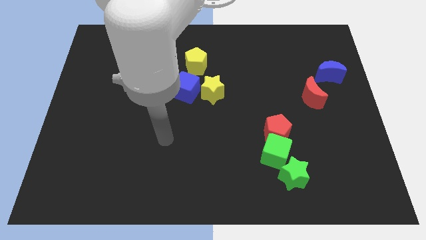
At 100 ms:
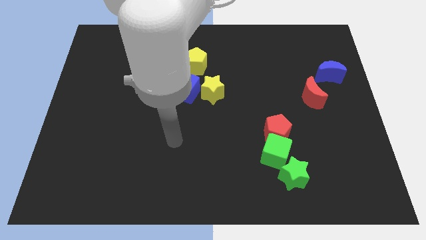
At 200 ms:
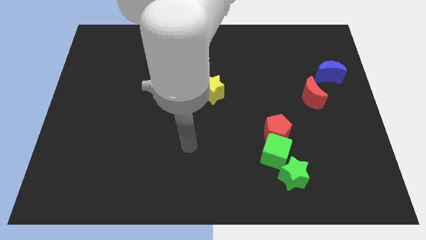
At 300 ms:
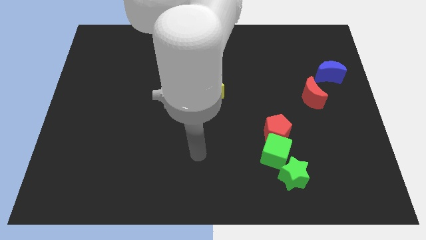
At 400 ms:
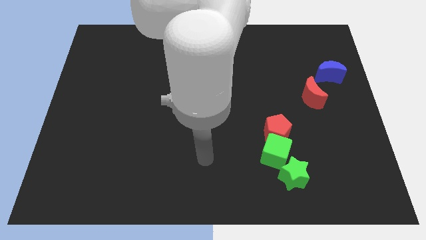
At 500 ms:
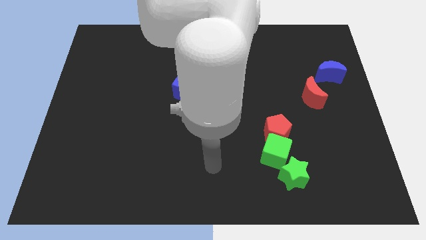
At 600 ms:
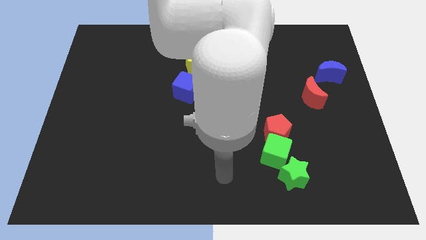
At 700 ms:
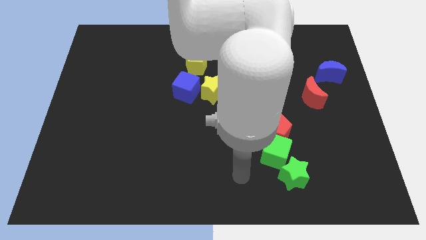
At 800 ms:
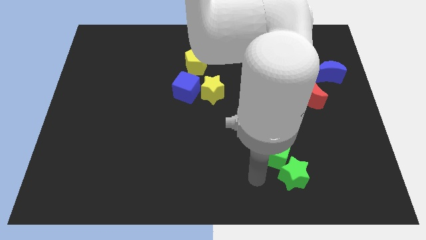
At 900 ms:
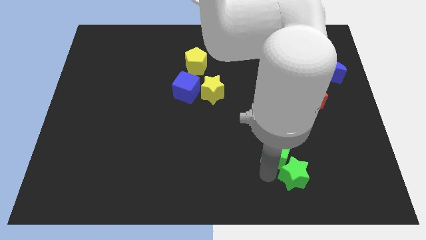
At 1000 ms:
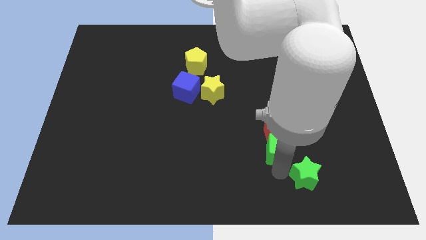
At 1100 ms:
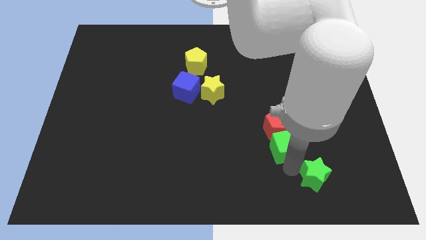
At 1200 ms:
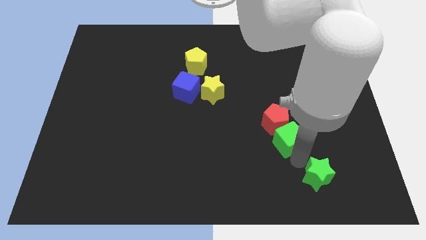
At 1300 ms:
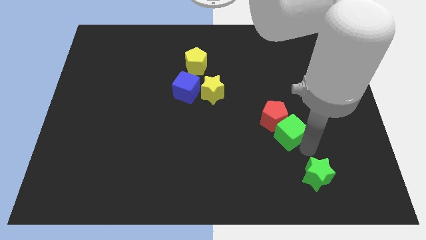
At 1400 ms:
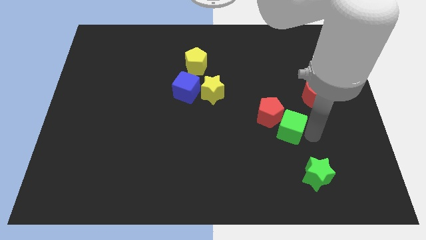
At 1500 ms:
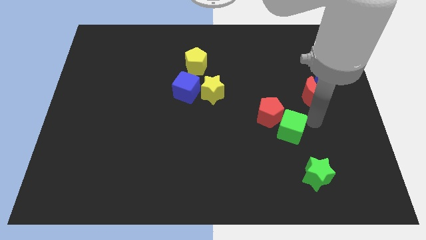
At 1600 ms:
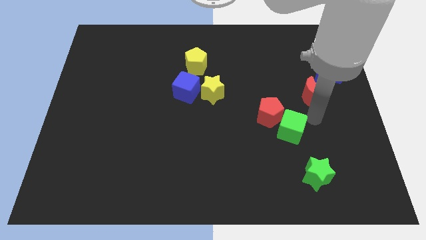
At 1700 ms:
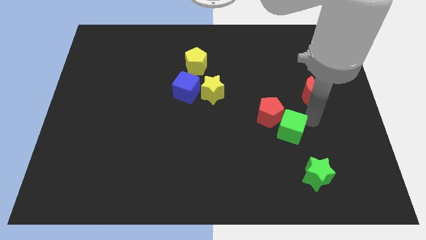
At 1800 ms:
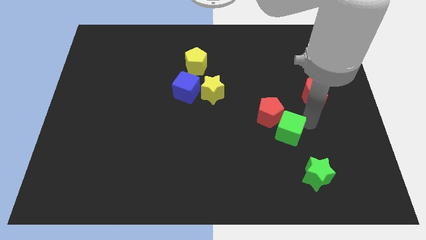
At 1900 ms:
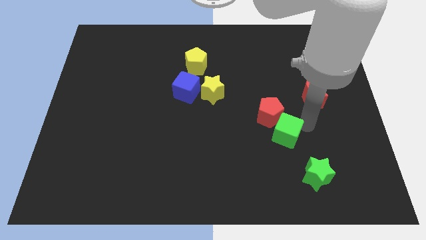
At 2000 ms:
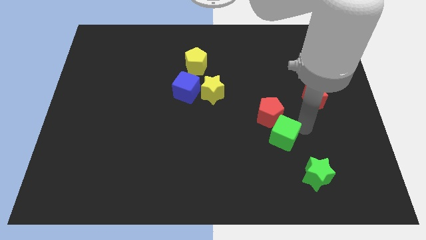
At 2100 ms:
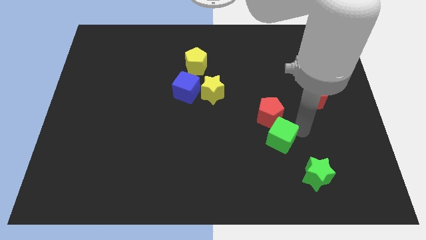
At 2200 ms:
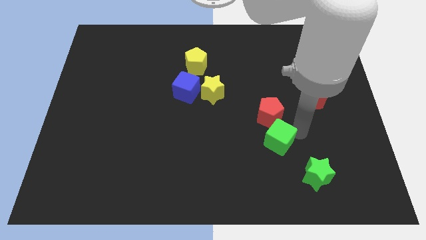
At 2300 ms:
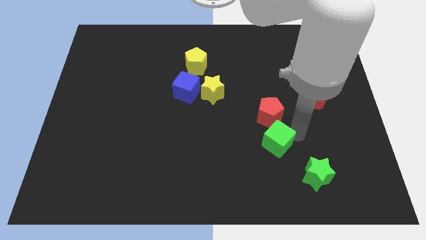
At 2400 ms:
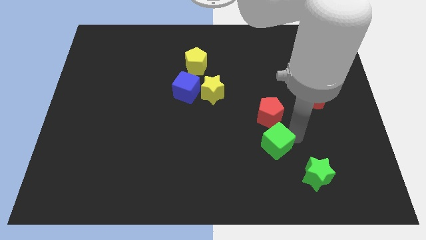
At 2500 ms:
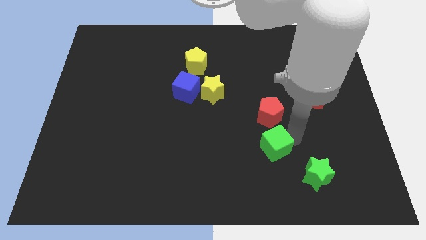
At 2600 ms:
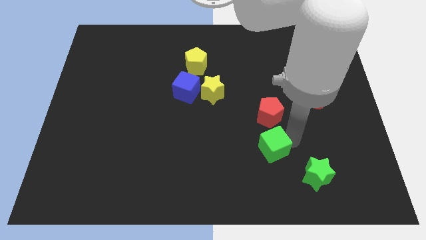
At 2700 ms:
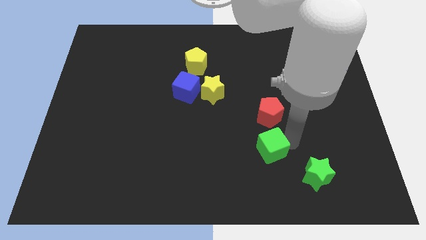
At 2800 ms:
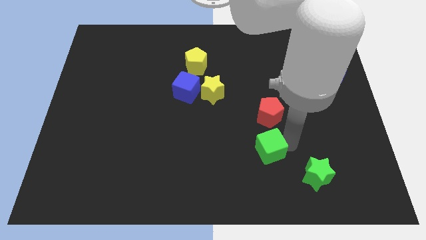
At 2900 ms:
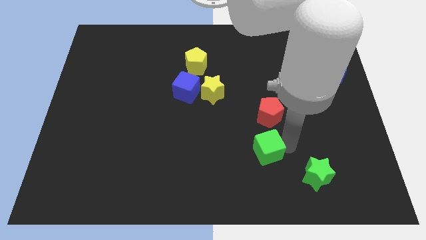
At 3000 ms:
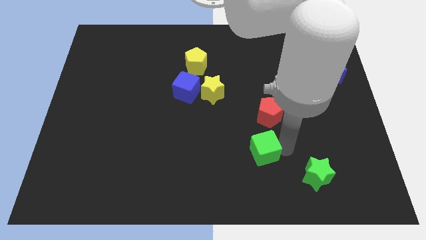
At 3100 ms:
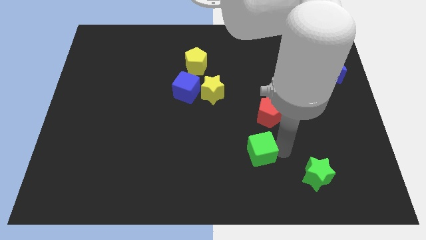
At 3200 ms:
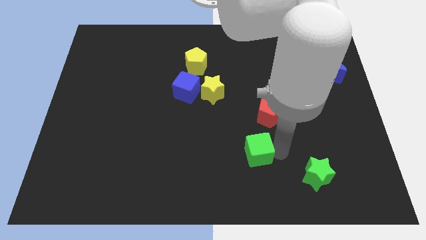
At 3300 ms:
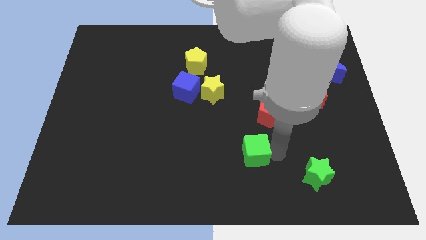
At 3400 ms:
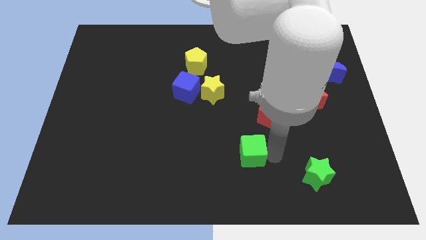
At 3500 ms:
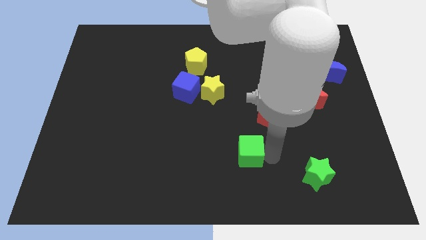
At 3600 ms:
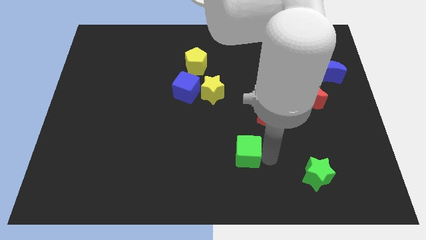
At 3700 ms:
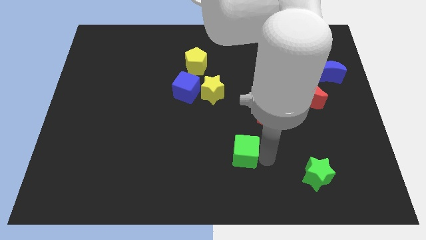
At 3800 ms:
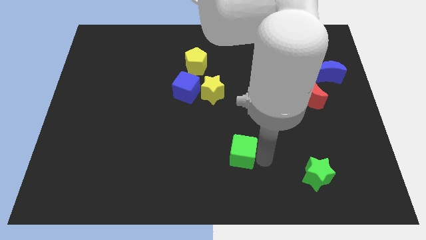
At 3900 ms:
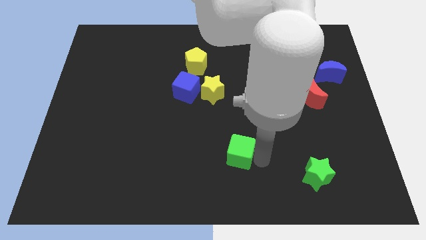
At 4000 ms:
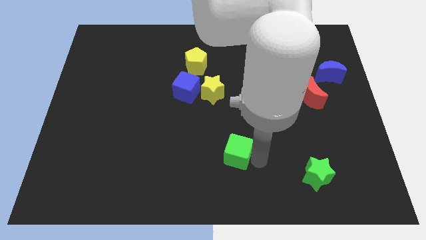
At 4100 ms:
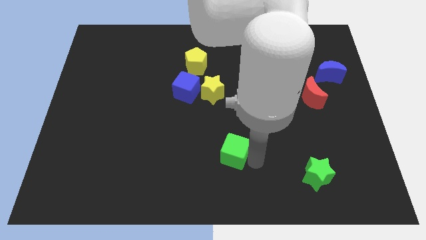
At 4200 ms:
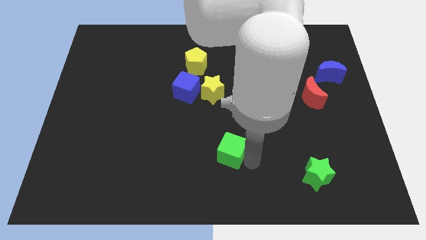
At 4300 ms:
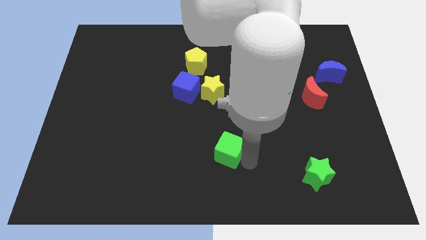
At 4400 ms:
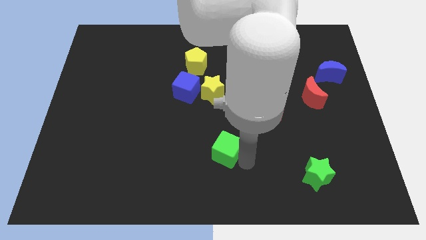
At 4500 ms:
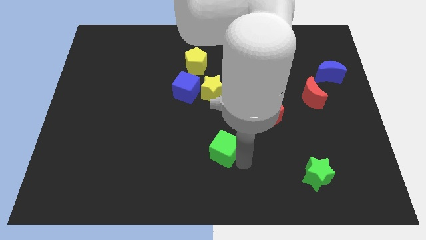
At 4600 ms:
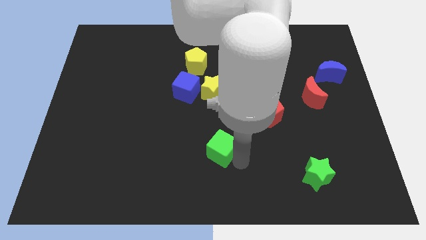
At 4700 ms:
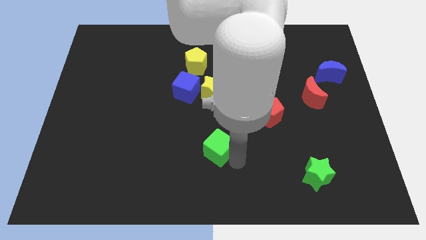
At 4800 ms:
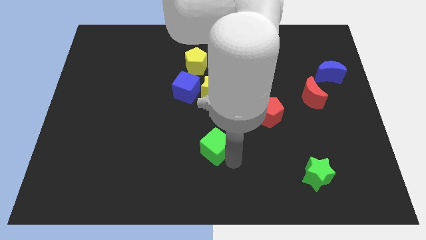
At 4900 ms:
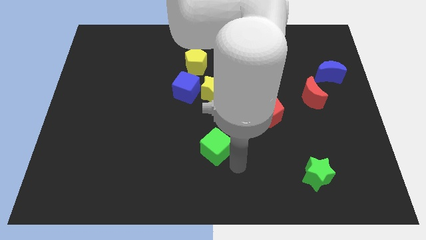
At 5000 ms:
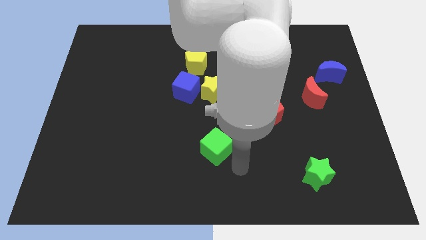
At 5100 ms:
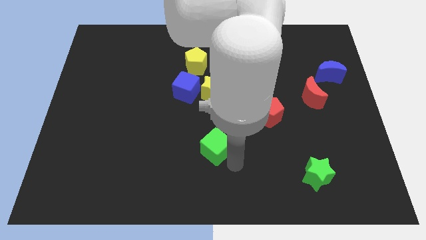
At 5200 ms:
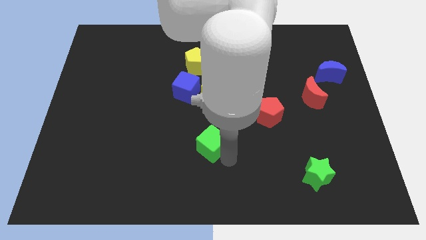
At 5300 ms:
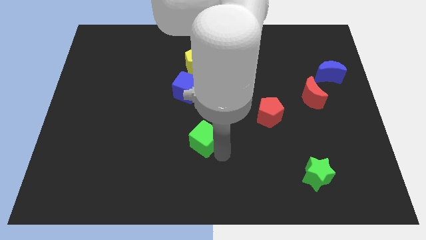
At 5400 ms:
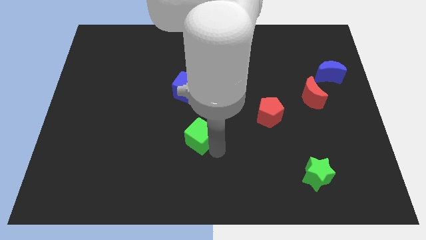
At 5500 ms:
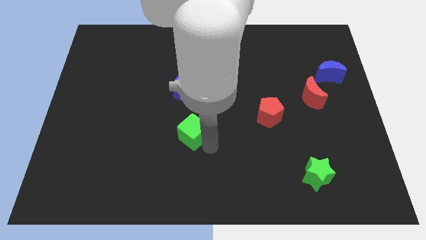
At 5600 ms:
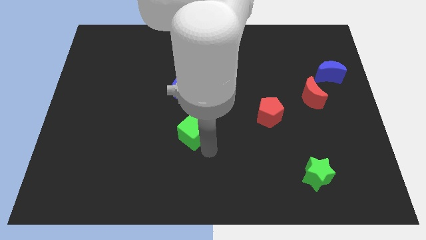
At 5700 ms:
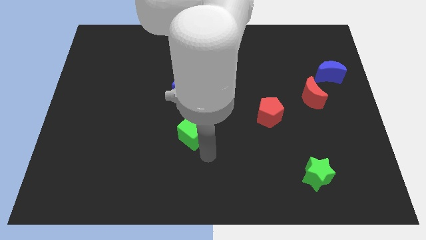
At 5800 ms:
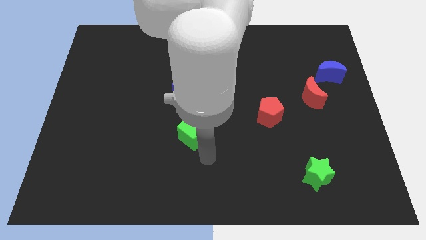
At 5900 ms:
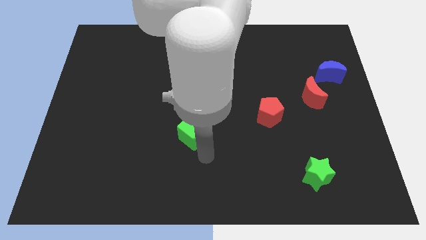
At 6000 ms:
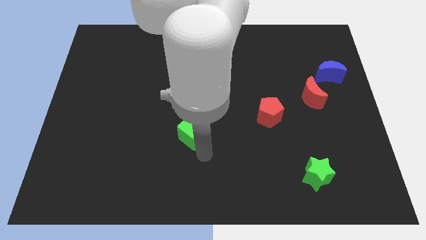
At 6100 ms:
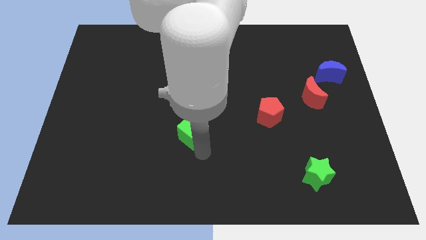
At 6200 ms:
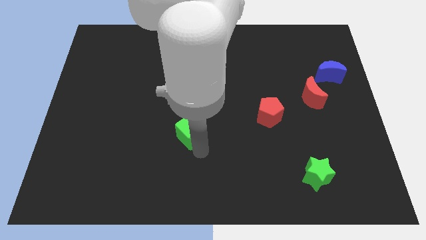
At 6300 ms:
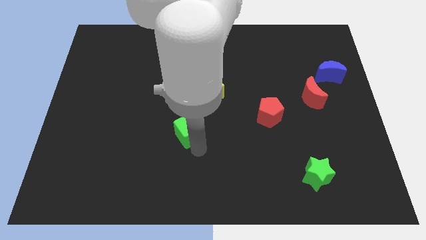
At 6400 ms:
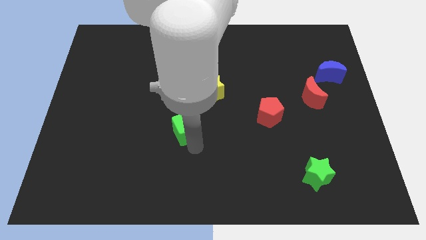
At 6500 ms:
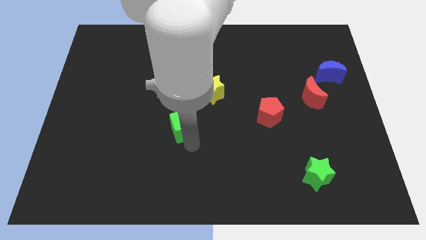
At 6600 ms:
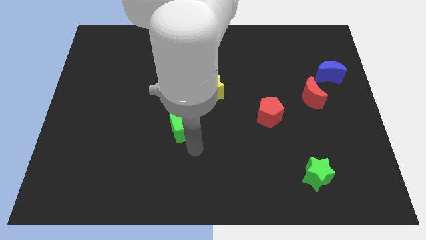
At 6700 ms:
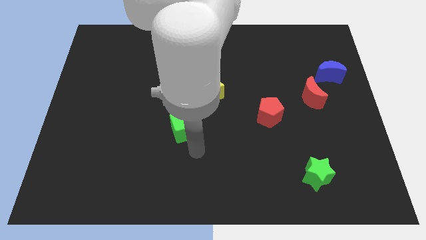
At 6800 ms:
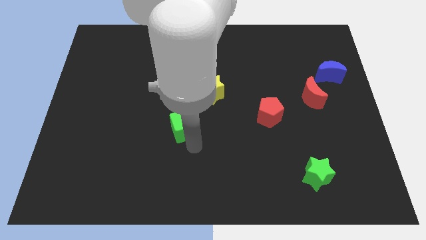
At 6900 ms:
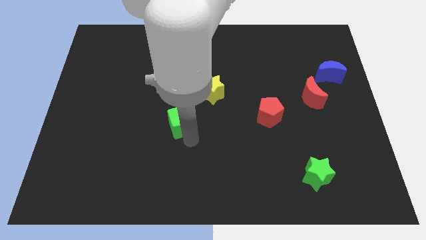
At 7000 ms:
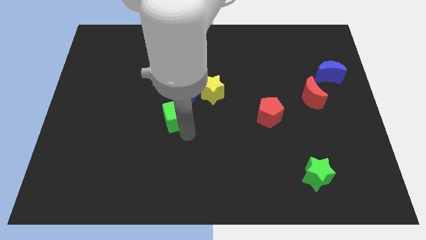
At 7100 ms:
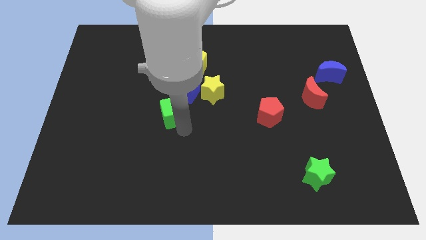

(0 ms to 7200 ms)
slide the green cube upwards and left diagonally

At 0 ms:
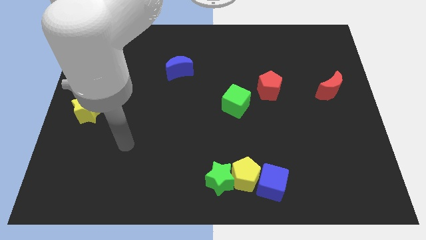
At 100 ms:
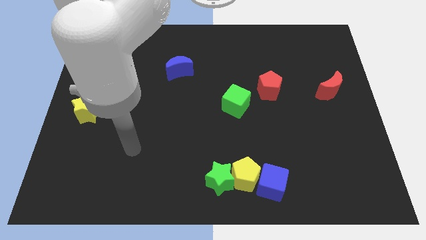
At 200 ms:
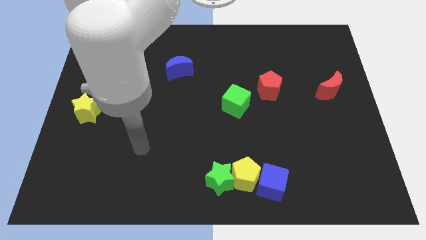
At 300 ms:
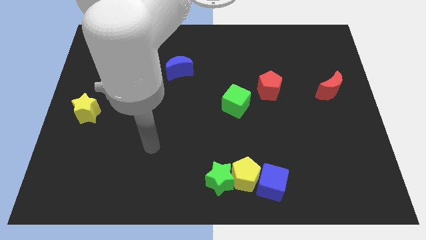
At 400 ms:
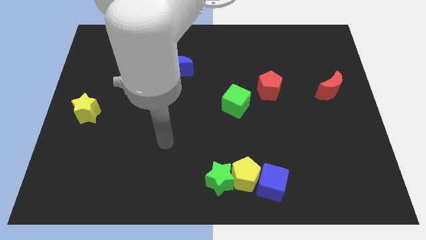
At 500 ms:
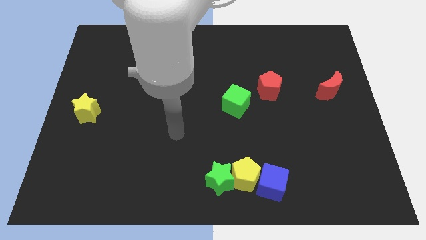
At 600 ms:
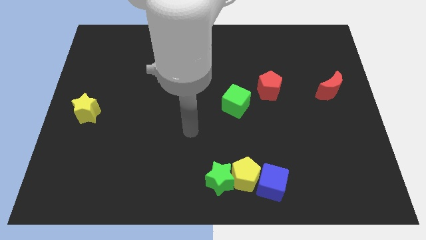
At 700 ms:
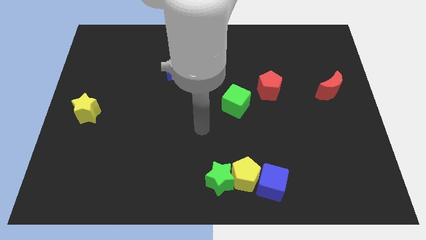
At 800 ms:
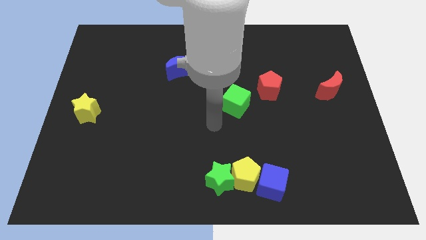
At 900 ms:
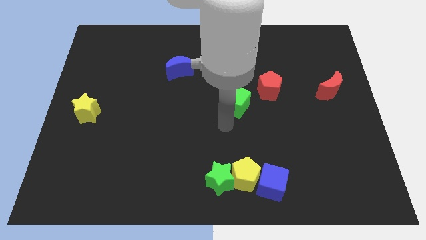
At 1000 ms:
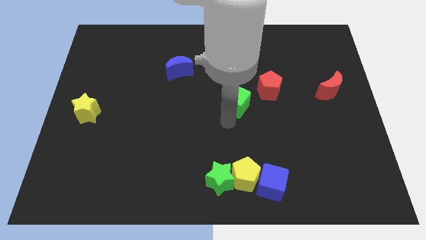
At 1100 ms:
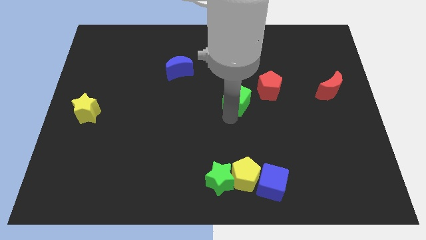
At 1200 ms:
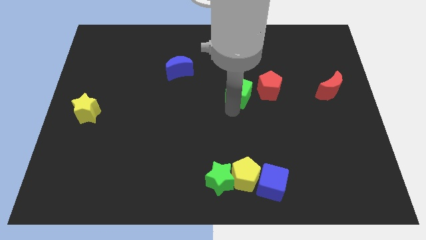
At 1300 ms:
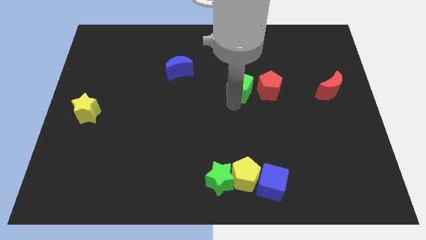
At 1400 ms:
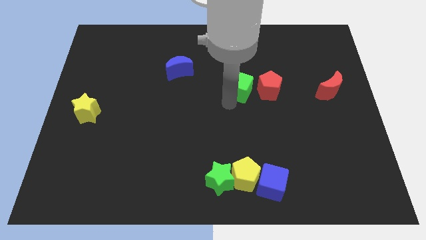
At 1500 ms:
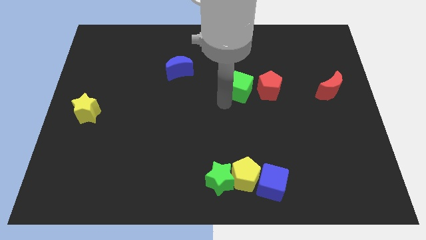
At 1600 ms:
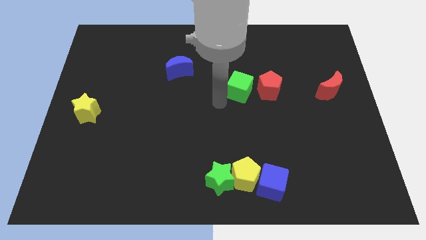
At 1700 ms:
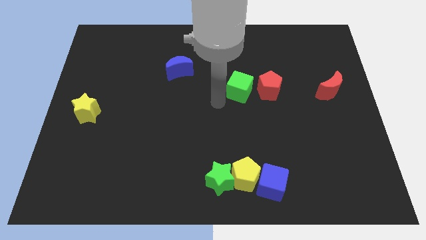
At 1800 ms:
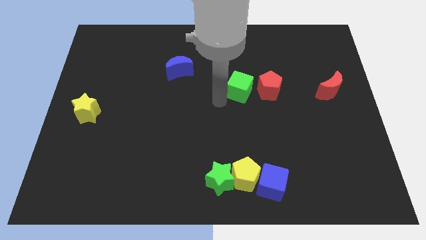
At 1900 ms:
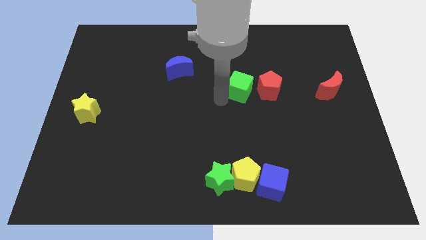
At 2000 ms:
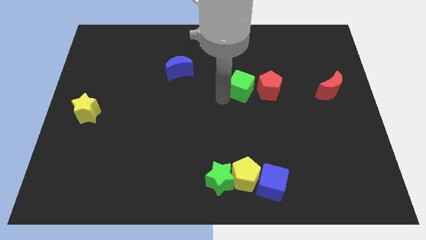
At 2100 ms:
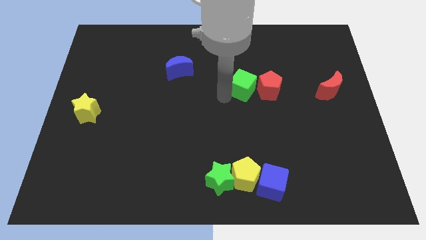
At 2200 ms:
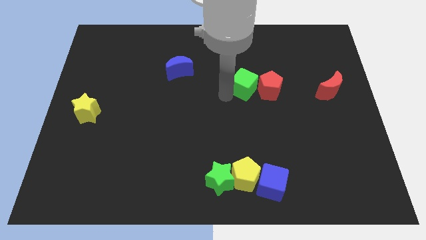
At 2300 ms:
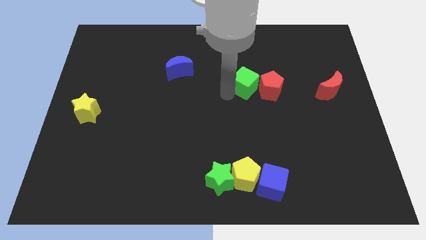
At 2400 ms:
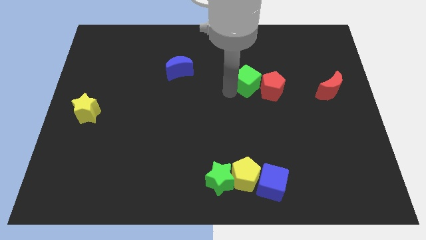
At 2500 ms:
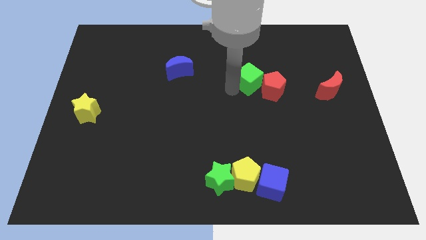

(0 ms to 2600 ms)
slide the green cube upwards and then right somewhat
